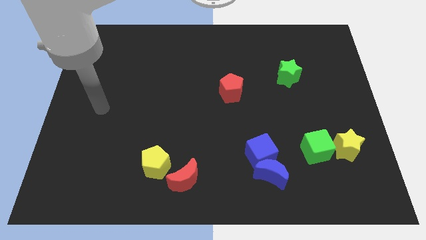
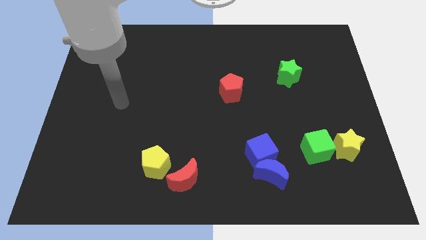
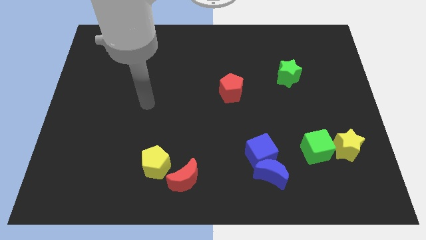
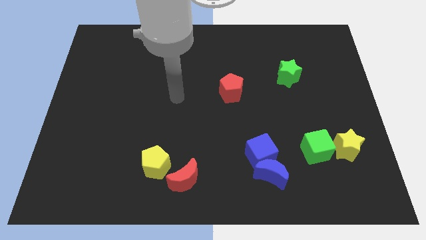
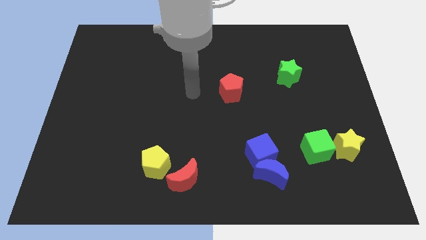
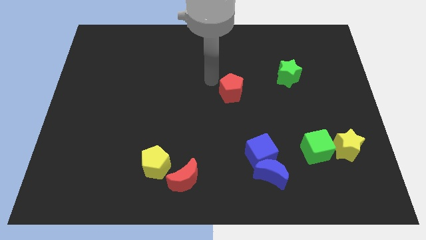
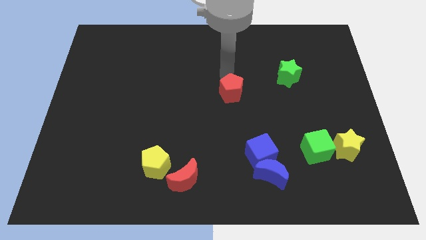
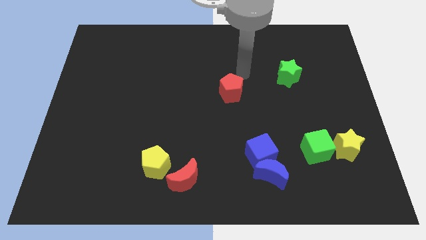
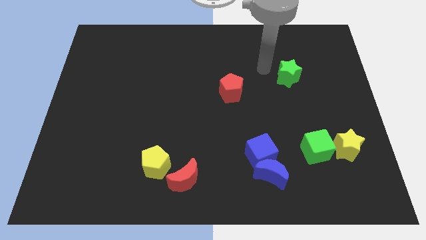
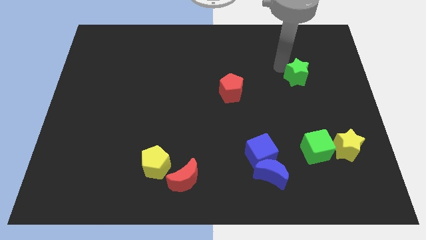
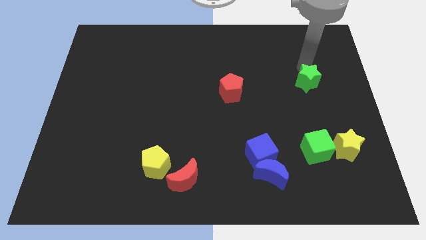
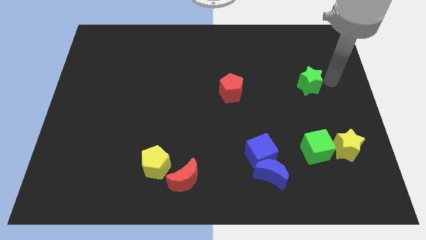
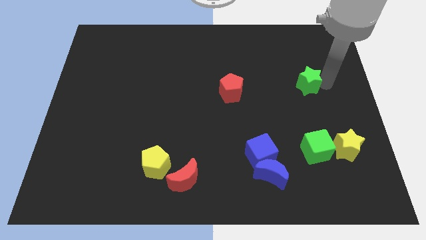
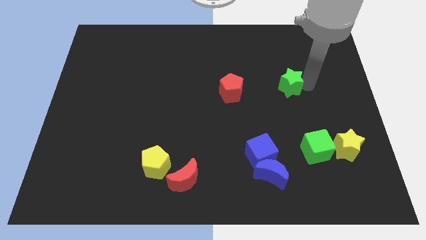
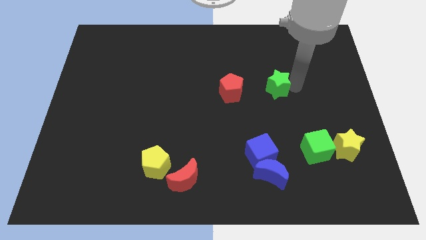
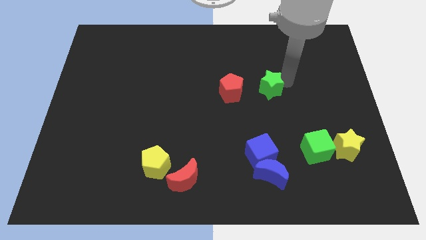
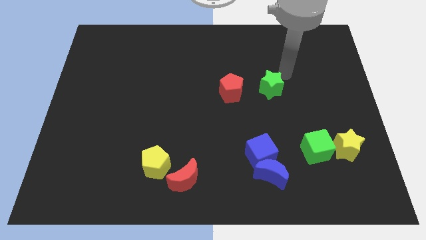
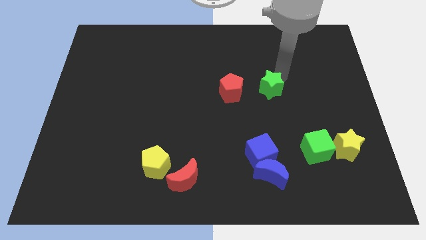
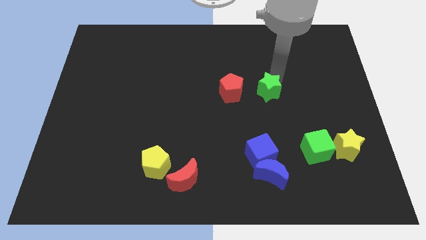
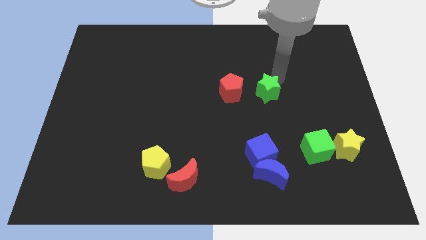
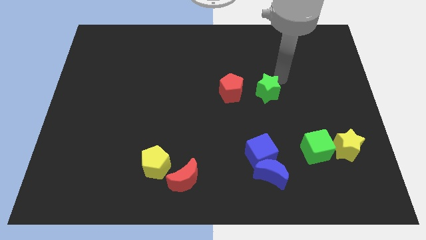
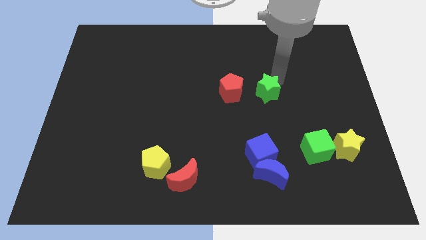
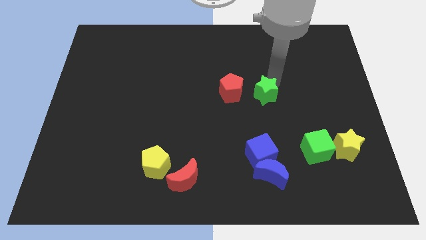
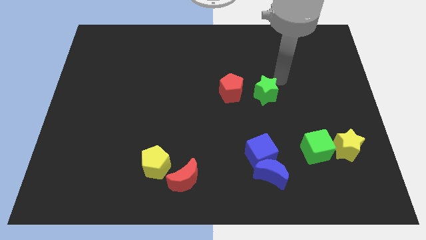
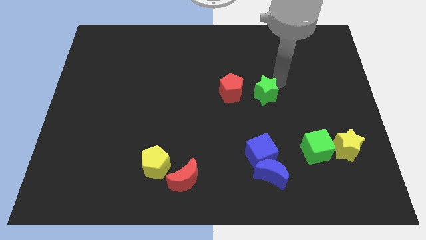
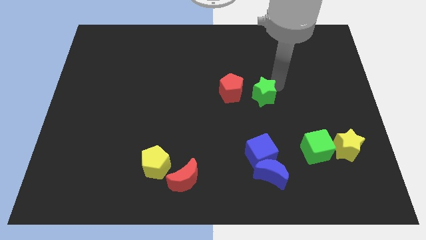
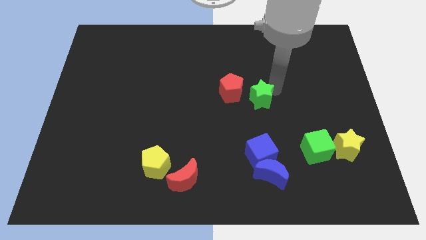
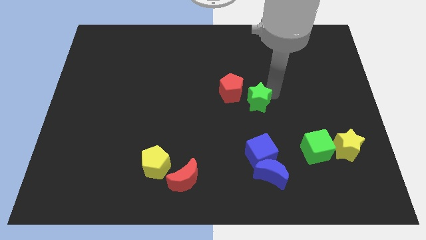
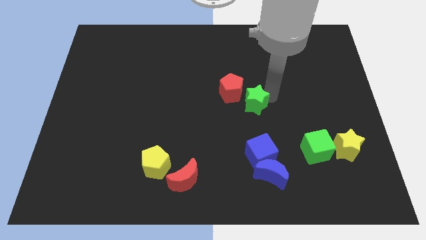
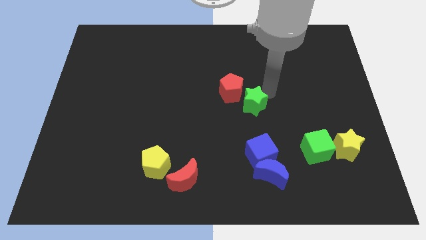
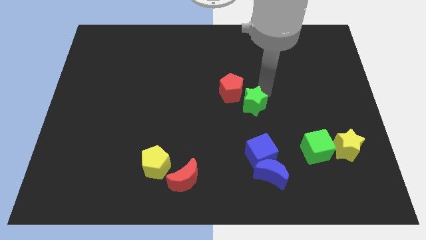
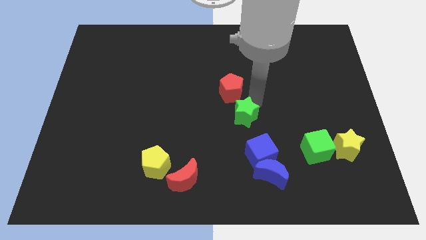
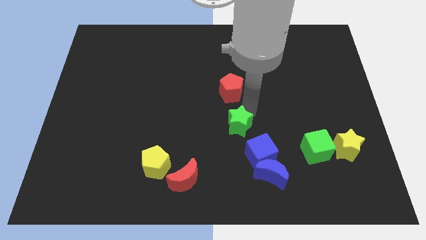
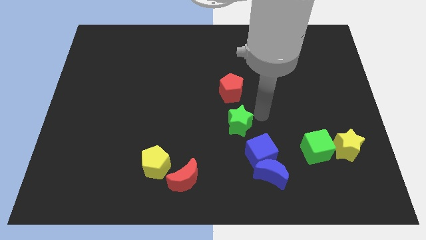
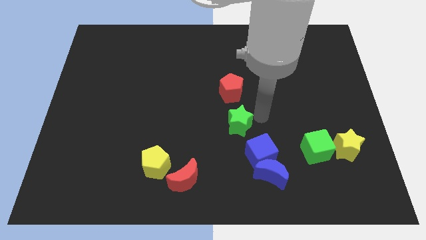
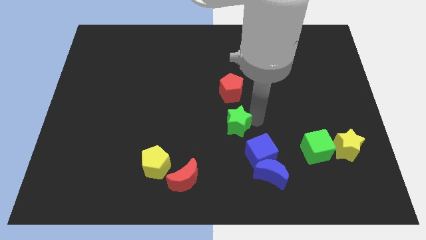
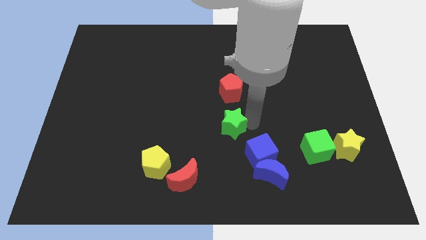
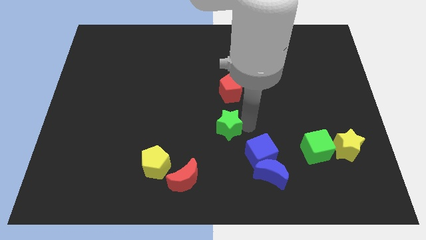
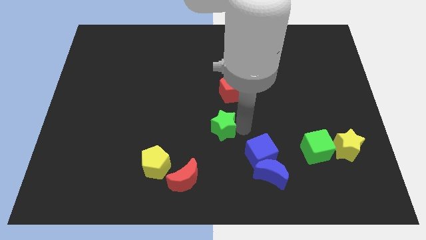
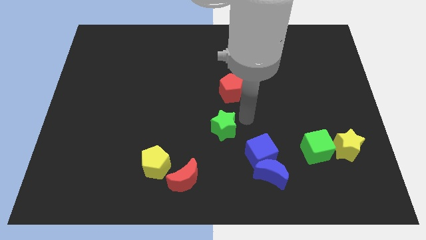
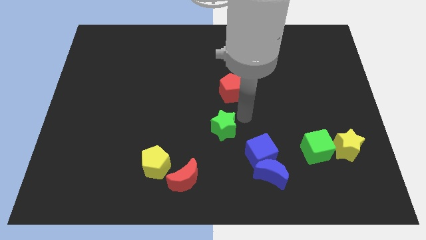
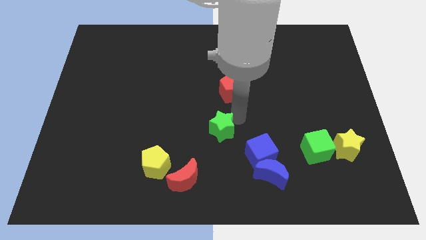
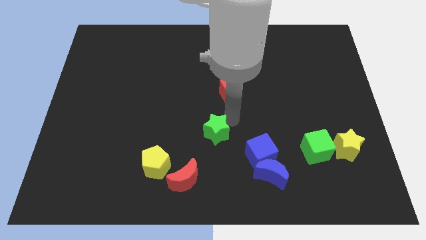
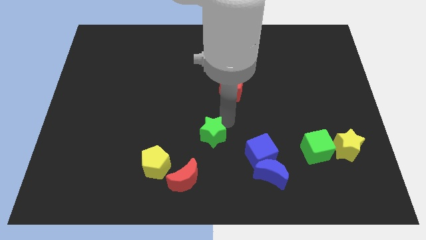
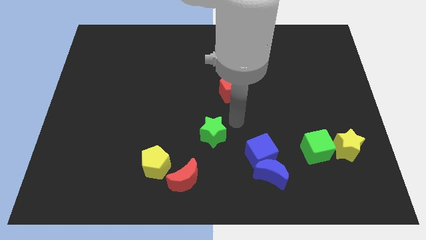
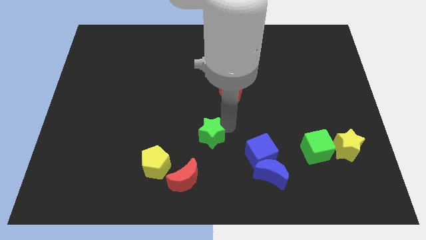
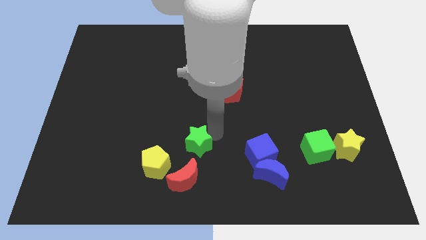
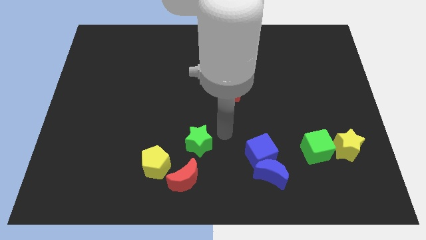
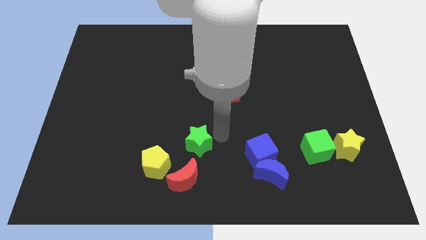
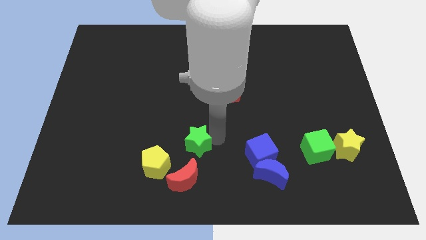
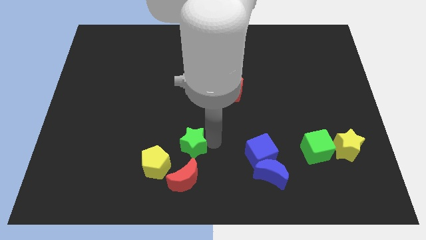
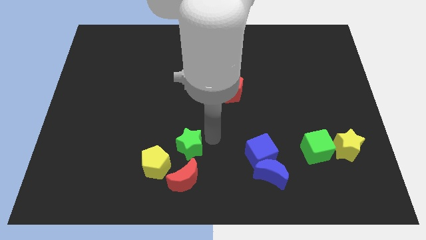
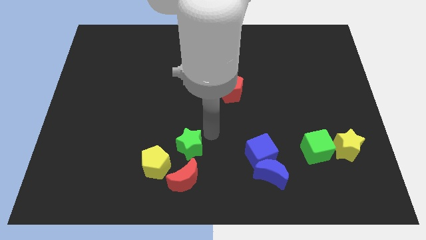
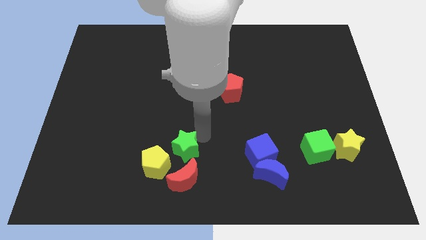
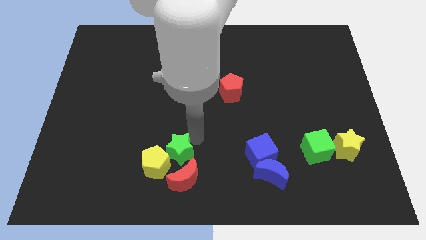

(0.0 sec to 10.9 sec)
put the green star close to the yellow pentagon

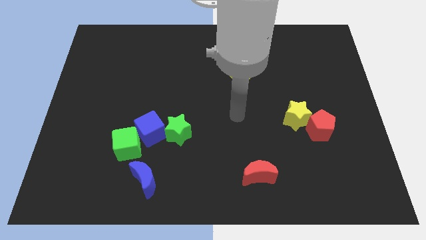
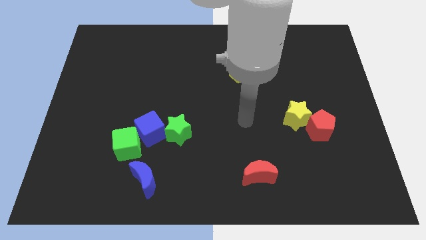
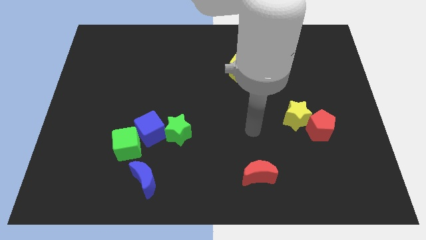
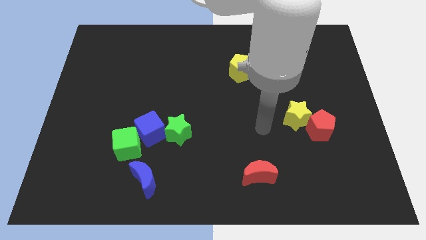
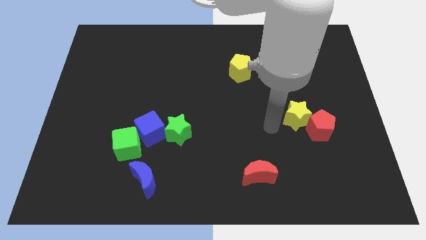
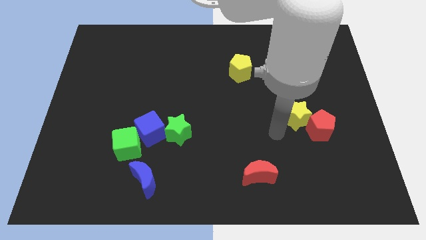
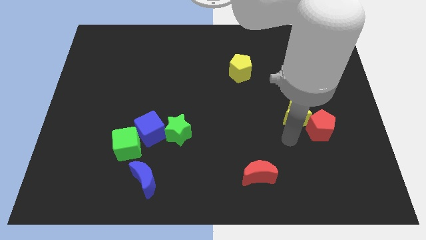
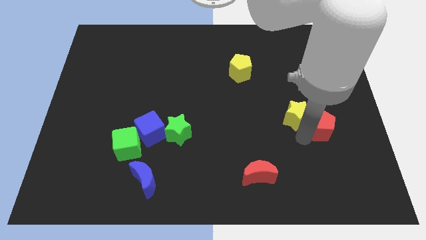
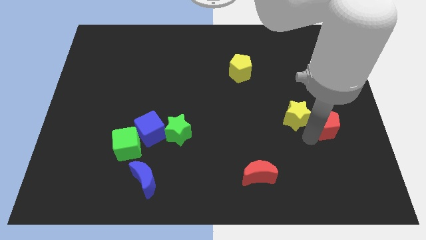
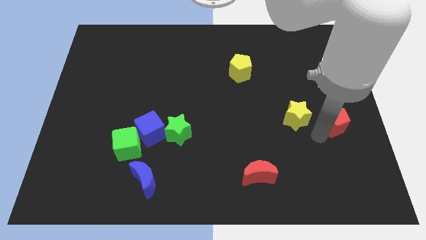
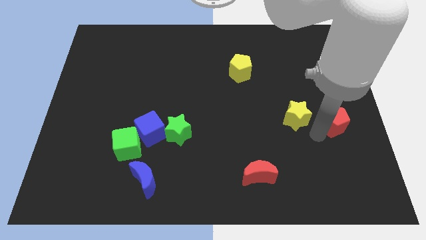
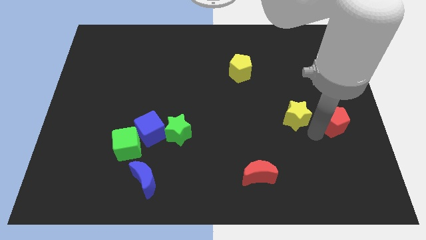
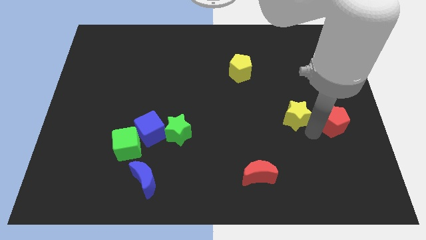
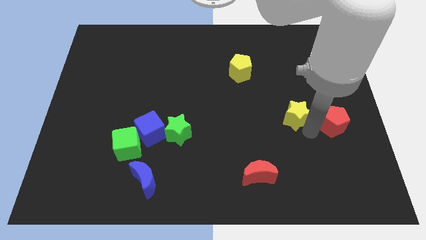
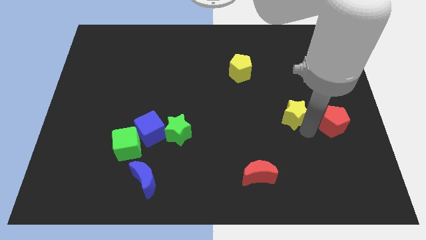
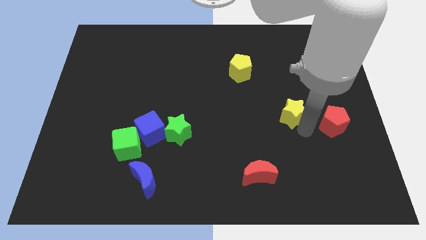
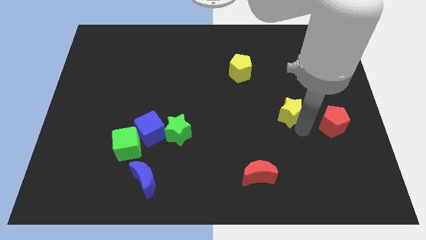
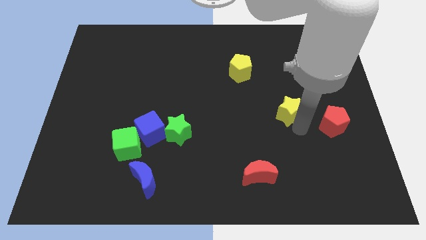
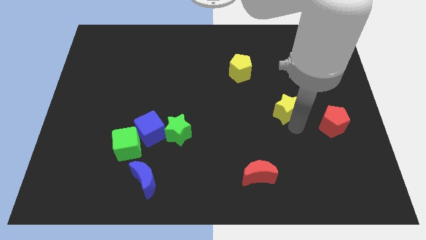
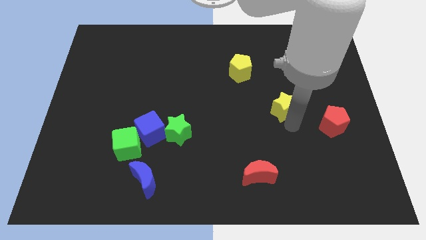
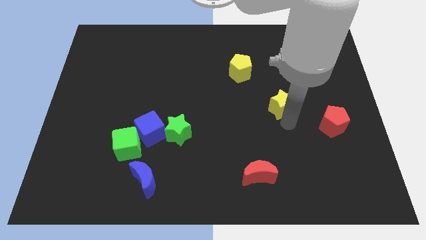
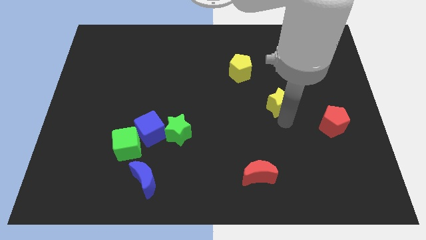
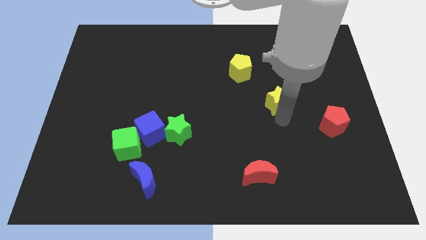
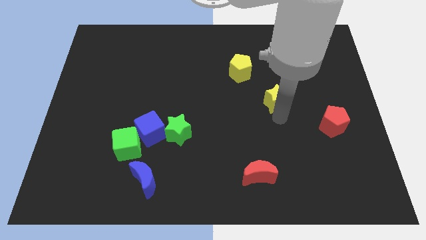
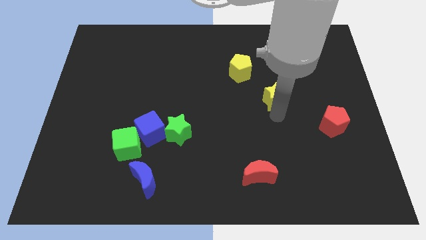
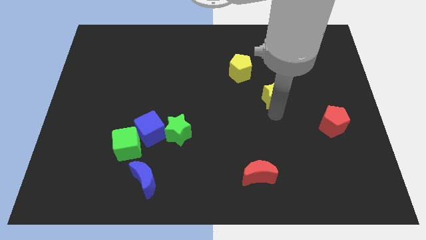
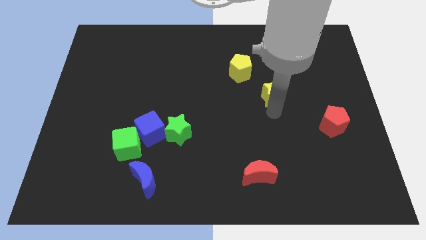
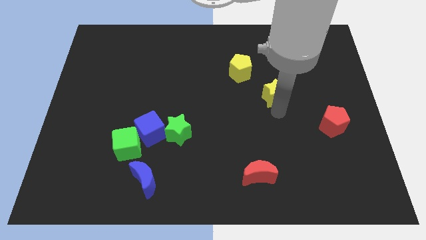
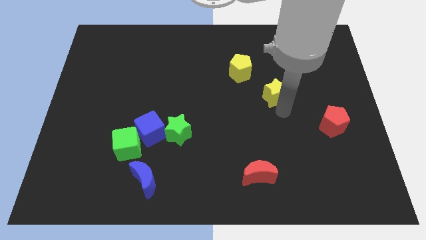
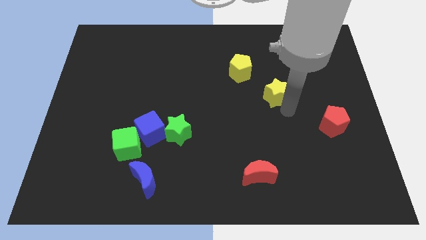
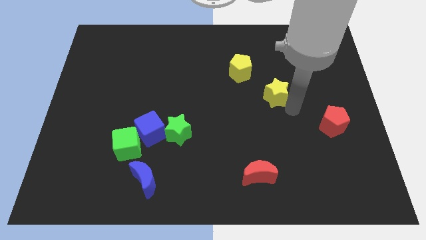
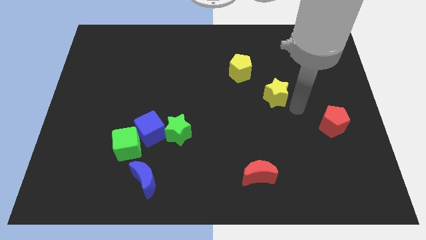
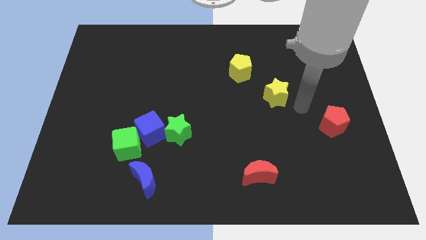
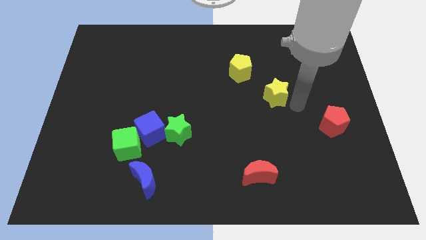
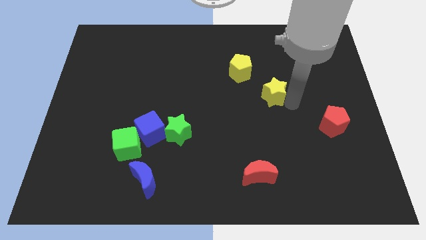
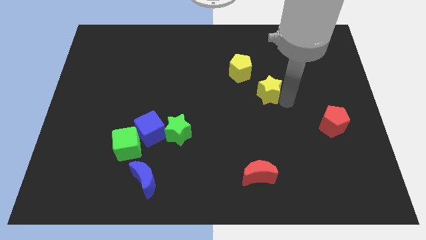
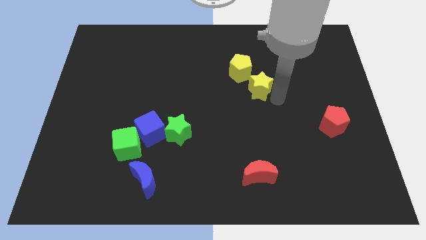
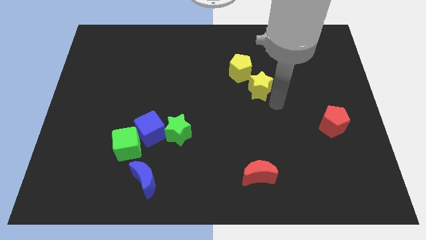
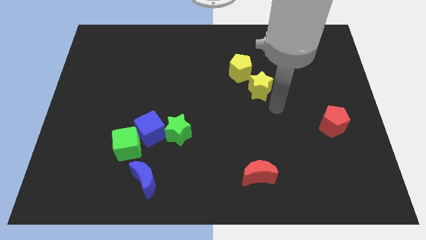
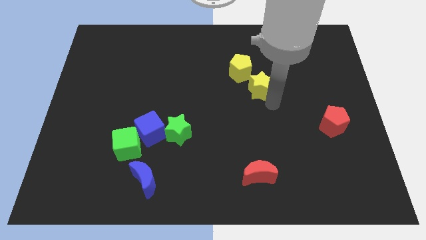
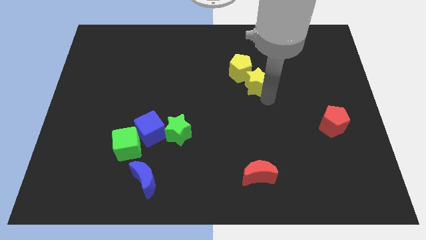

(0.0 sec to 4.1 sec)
slide the yellow star next to the yellow pentagon
